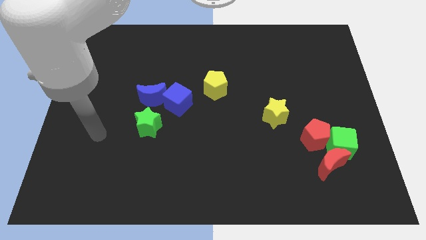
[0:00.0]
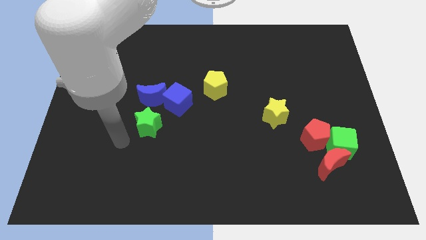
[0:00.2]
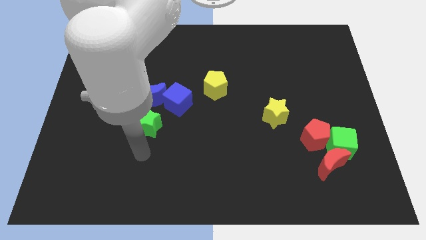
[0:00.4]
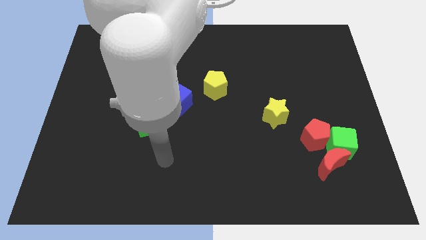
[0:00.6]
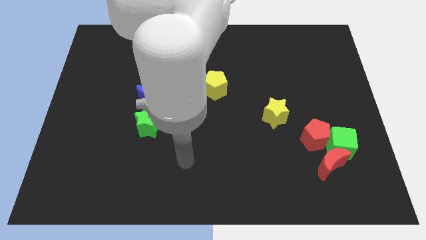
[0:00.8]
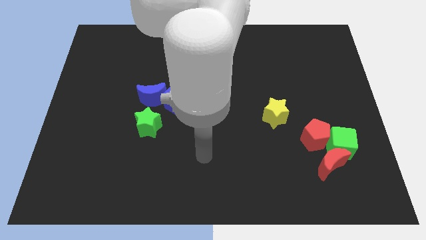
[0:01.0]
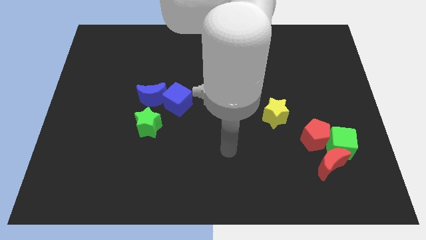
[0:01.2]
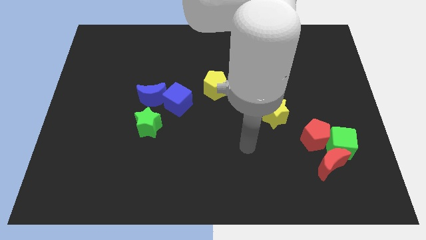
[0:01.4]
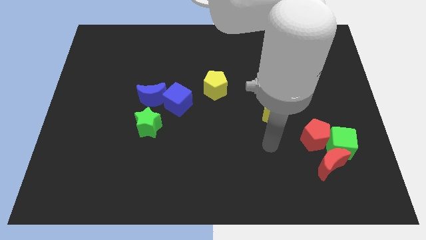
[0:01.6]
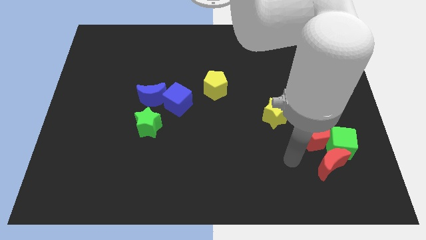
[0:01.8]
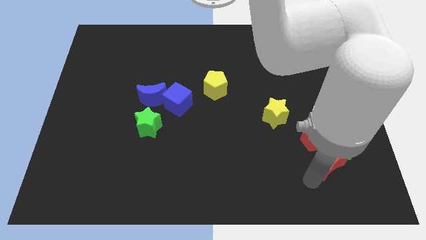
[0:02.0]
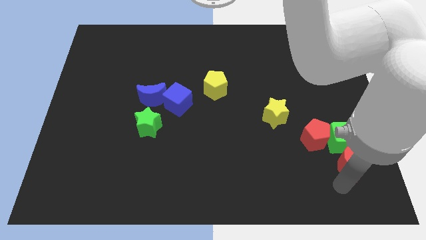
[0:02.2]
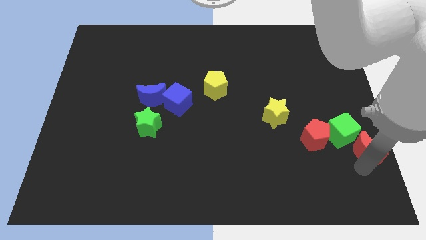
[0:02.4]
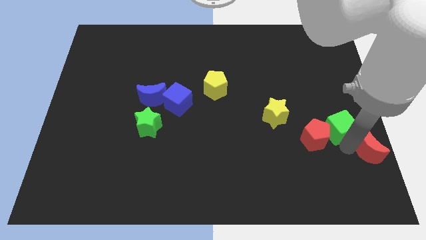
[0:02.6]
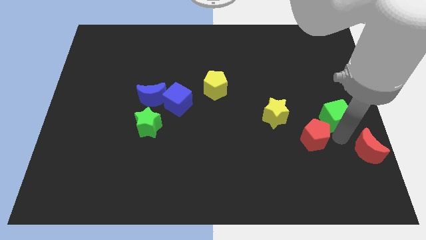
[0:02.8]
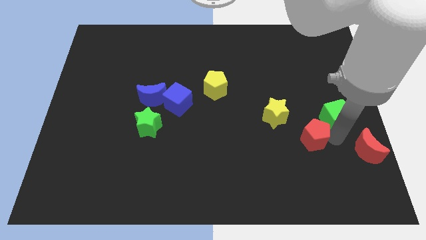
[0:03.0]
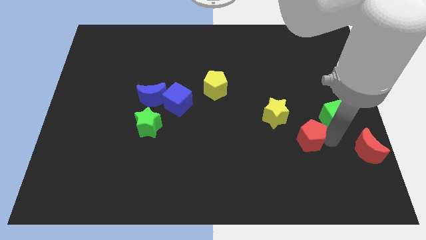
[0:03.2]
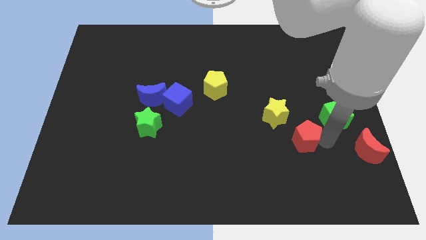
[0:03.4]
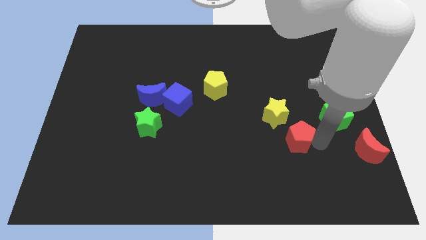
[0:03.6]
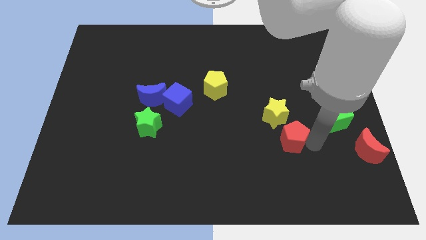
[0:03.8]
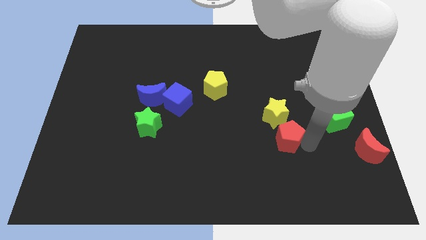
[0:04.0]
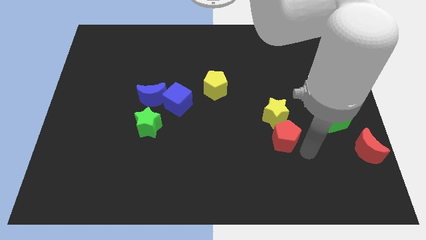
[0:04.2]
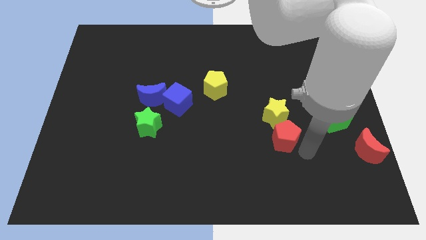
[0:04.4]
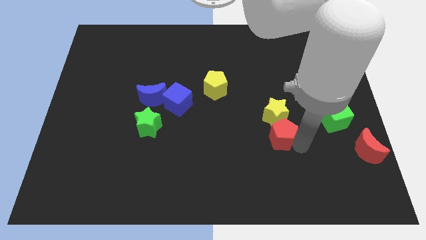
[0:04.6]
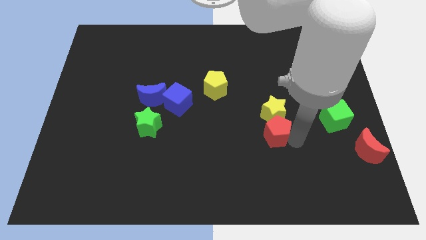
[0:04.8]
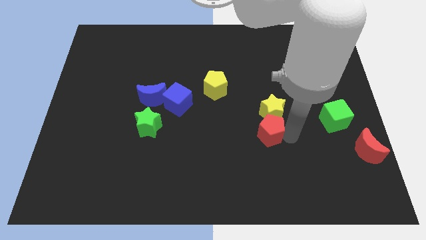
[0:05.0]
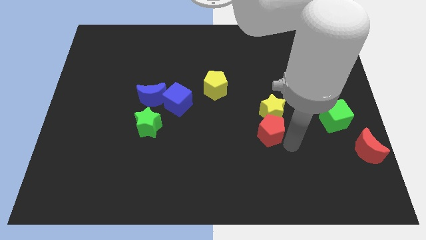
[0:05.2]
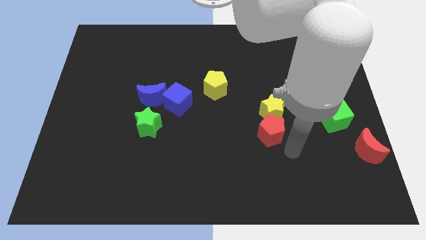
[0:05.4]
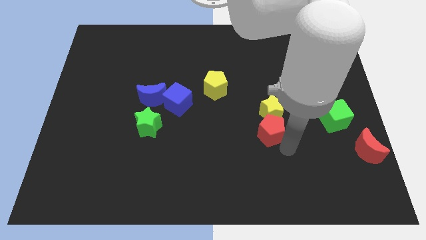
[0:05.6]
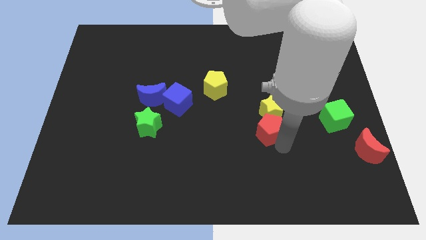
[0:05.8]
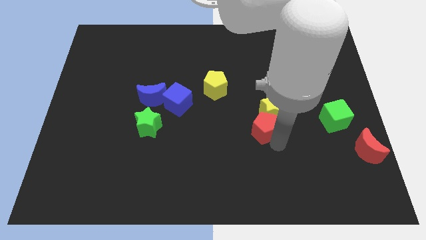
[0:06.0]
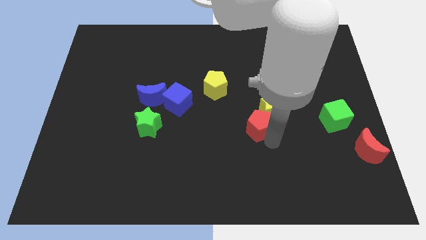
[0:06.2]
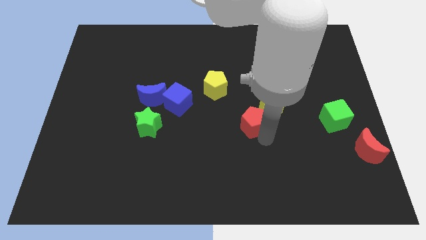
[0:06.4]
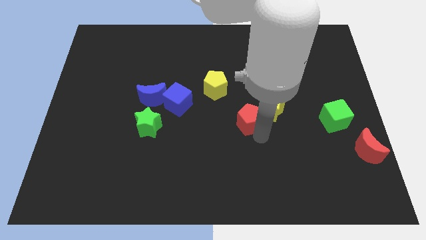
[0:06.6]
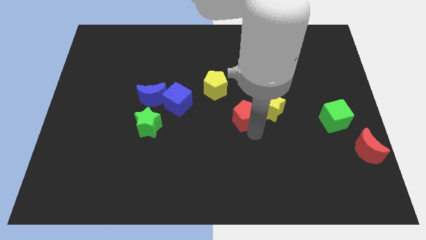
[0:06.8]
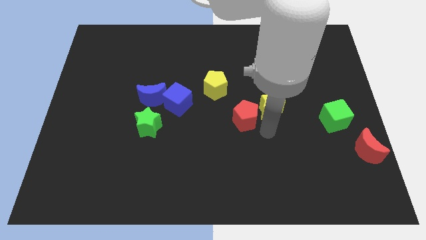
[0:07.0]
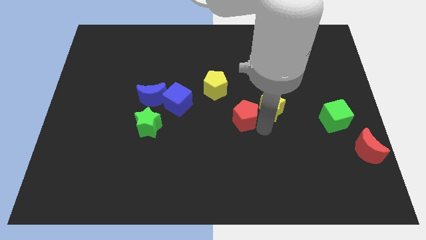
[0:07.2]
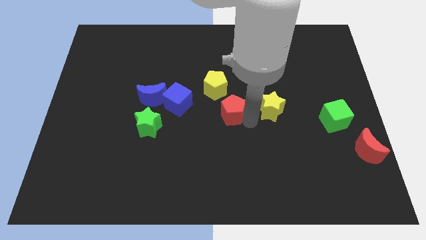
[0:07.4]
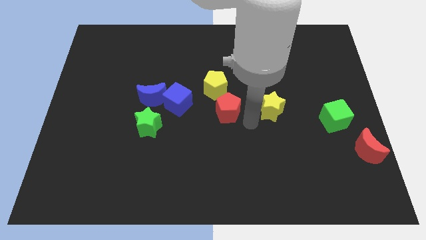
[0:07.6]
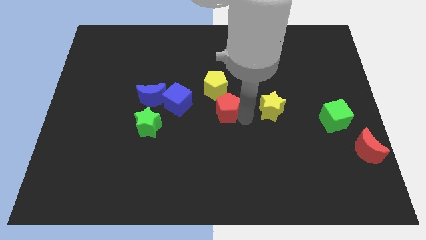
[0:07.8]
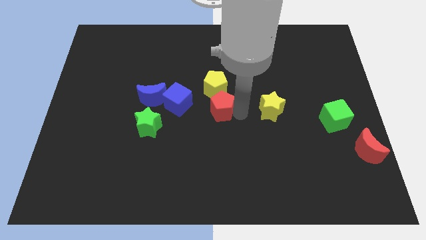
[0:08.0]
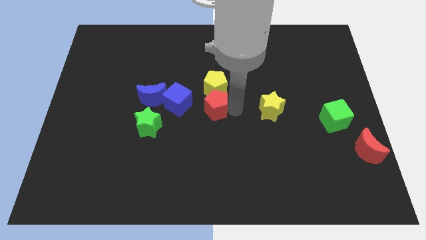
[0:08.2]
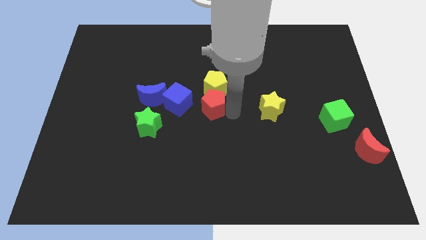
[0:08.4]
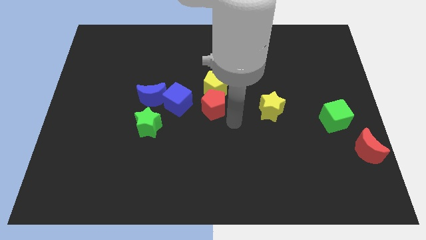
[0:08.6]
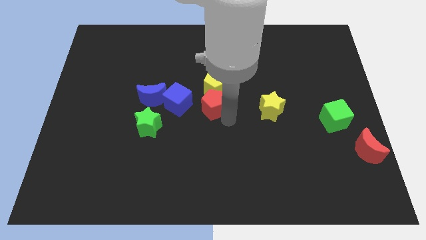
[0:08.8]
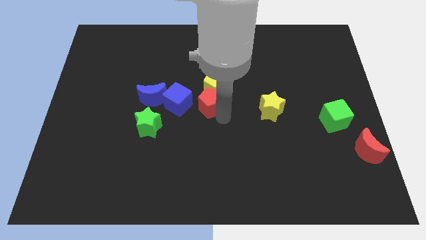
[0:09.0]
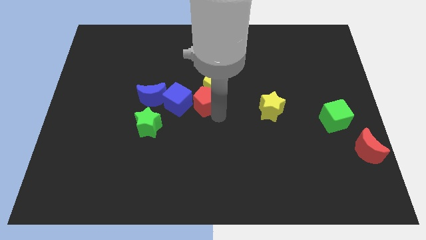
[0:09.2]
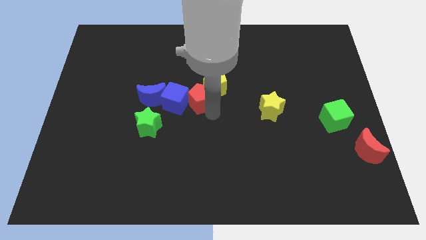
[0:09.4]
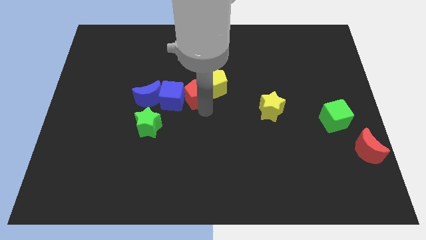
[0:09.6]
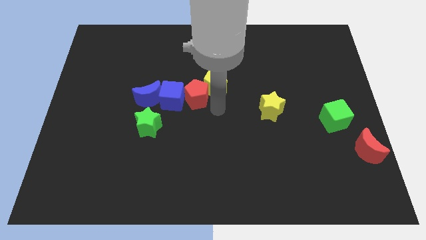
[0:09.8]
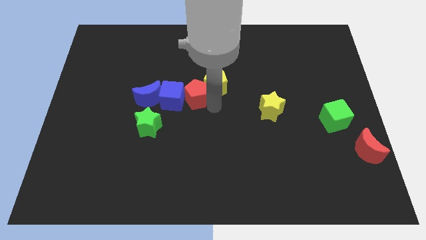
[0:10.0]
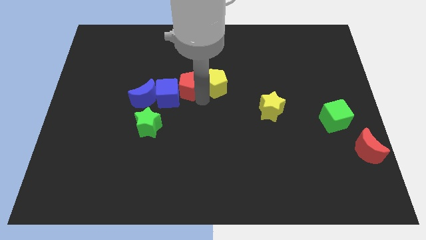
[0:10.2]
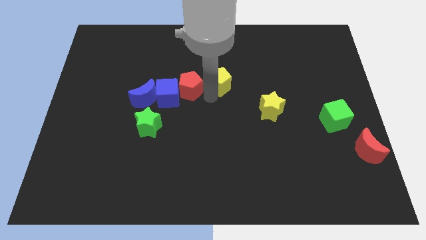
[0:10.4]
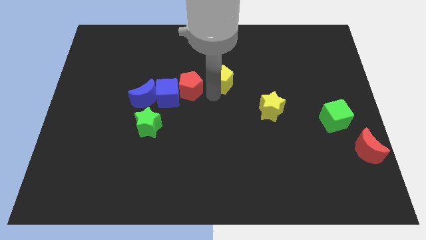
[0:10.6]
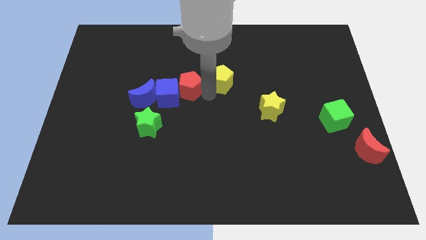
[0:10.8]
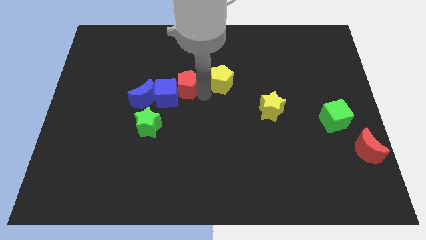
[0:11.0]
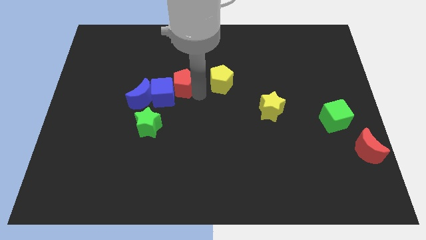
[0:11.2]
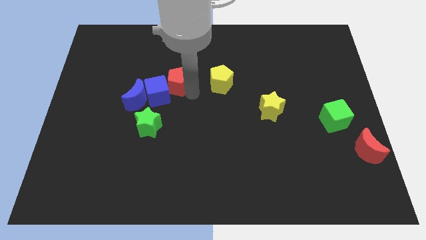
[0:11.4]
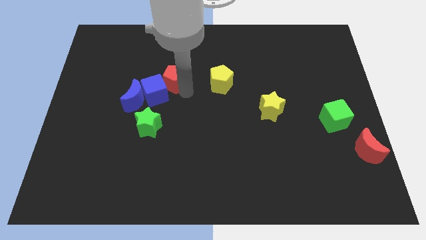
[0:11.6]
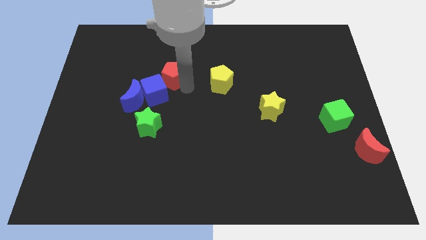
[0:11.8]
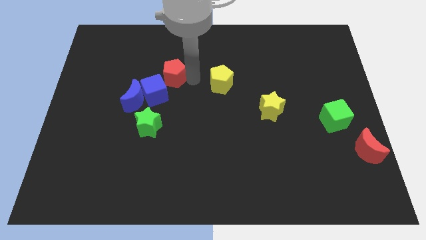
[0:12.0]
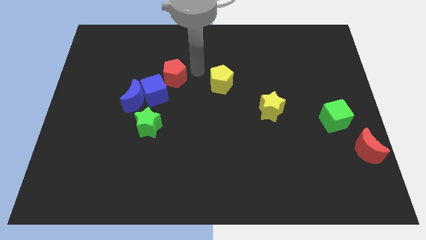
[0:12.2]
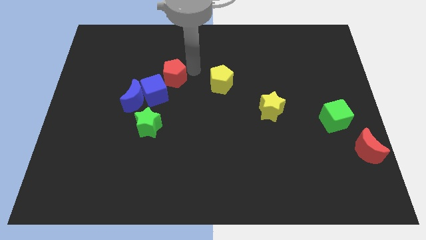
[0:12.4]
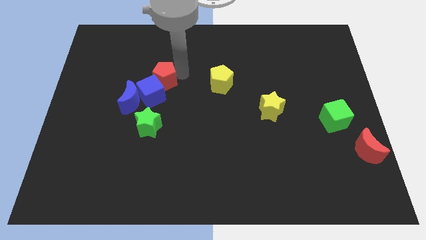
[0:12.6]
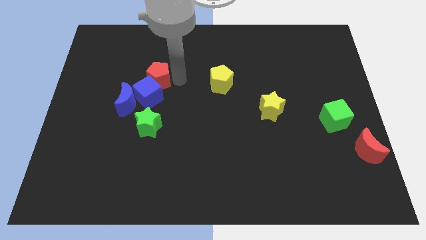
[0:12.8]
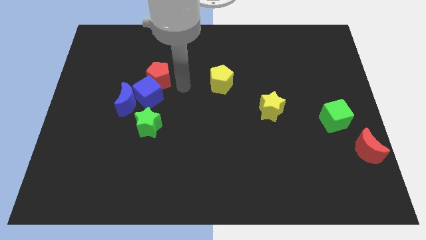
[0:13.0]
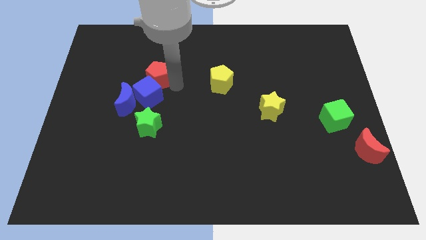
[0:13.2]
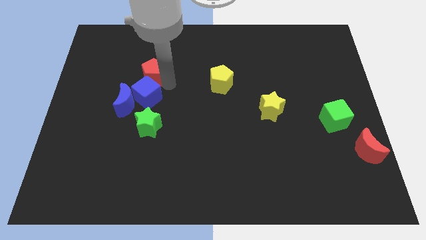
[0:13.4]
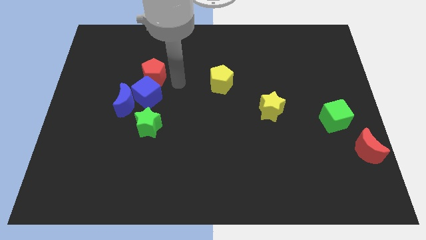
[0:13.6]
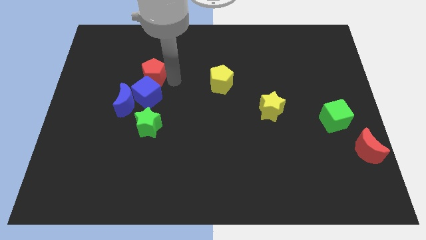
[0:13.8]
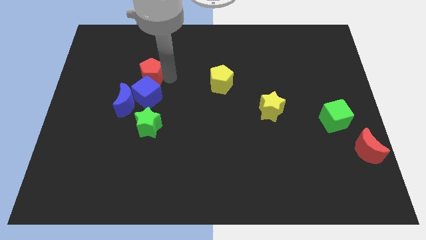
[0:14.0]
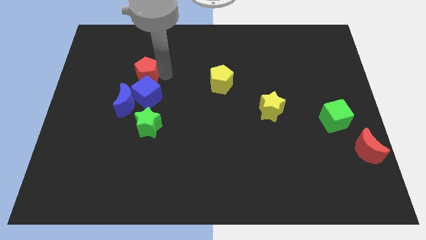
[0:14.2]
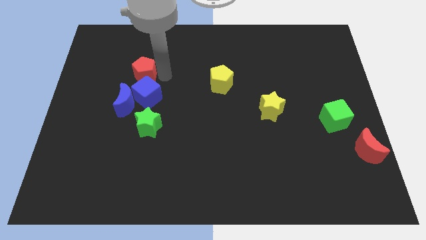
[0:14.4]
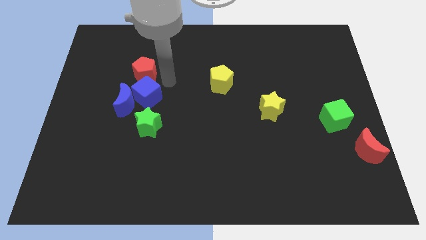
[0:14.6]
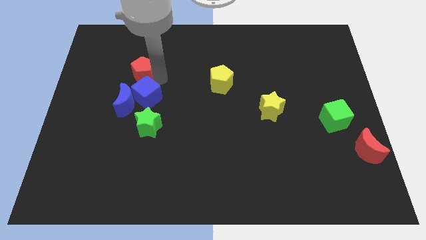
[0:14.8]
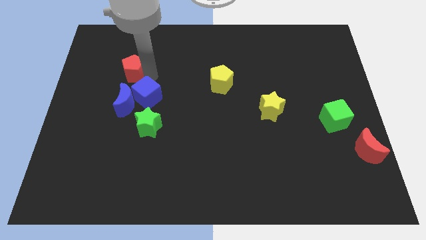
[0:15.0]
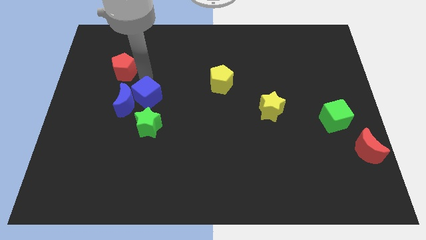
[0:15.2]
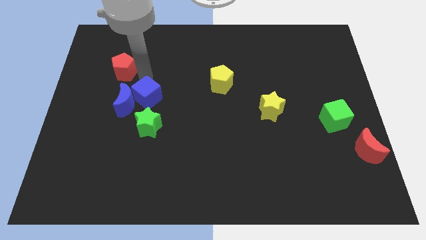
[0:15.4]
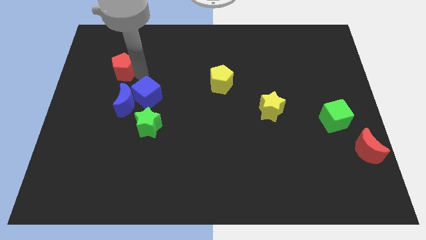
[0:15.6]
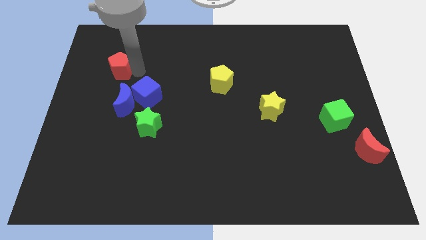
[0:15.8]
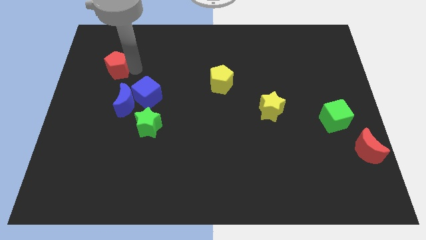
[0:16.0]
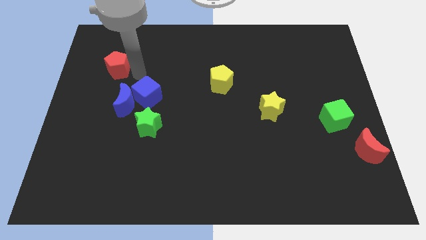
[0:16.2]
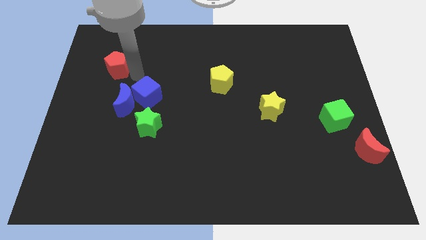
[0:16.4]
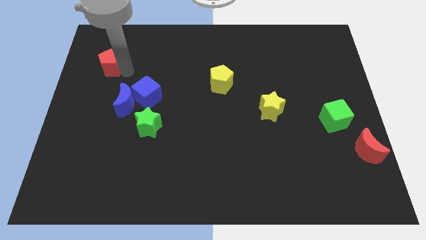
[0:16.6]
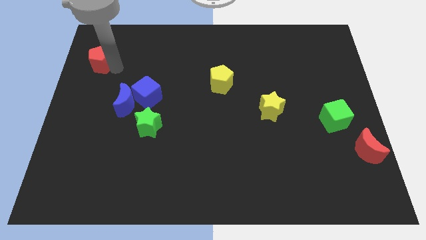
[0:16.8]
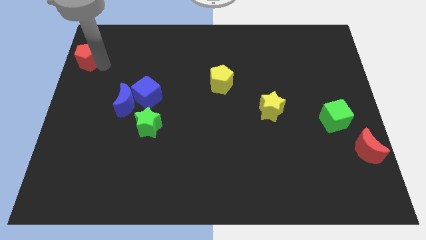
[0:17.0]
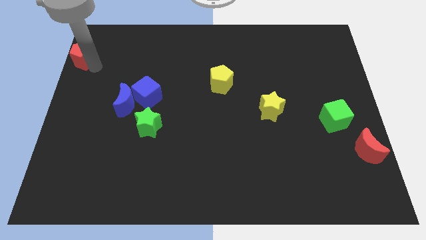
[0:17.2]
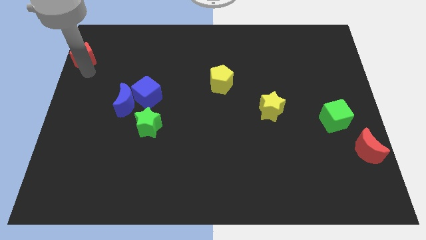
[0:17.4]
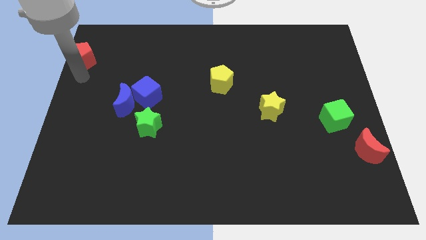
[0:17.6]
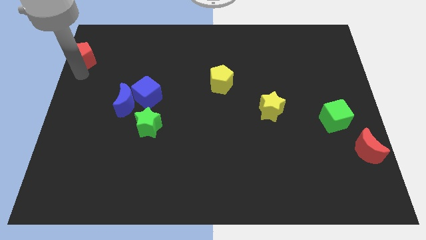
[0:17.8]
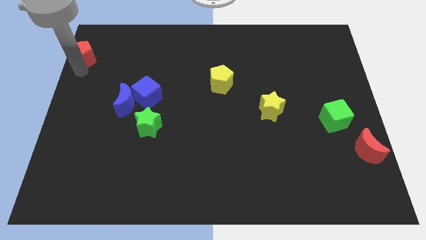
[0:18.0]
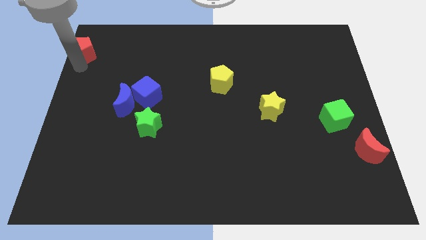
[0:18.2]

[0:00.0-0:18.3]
put the red pentagon to the top left corner
